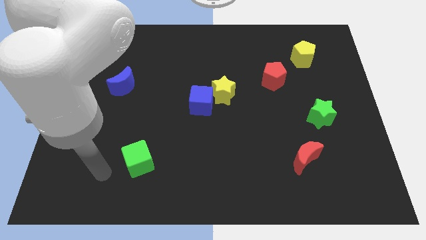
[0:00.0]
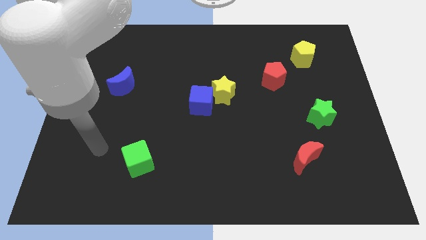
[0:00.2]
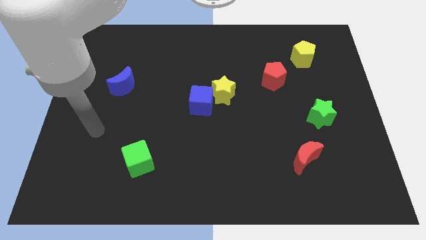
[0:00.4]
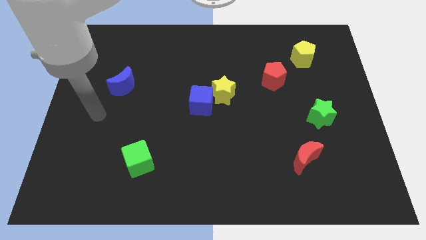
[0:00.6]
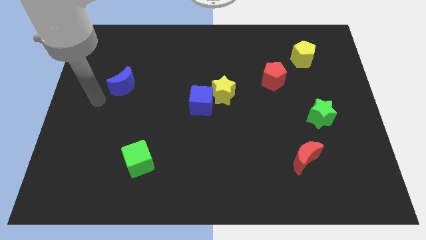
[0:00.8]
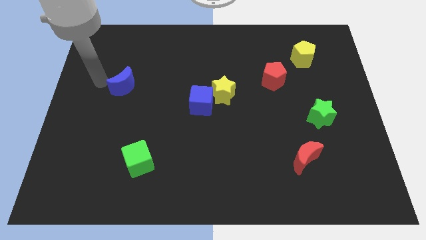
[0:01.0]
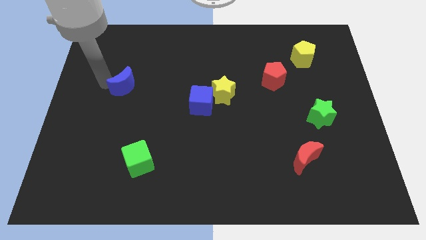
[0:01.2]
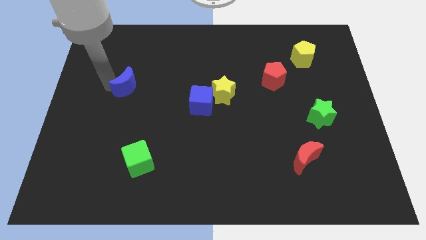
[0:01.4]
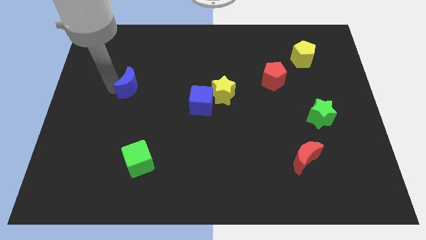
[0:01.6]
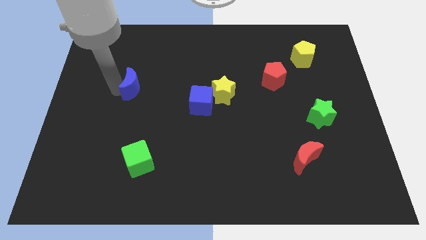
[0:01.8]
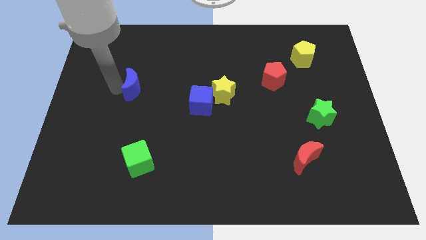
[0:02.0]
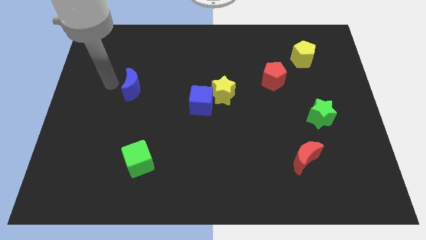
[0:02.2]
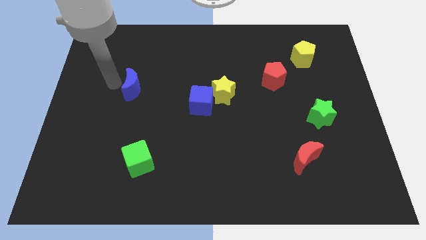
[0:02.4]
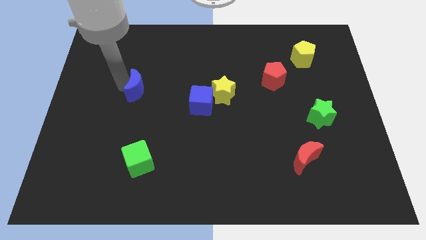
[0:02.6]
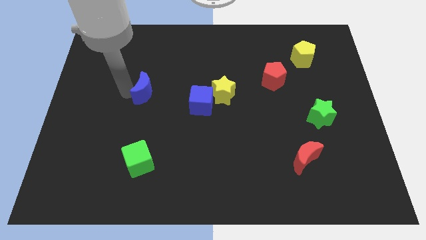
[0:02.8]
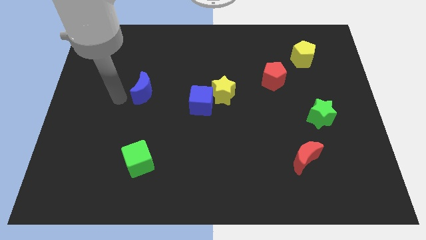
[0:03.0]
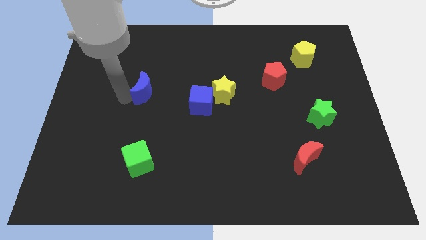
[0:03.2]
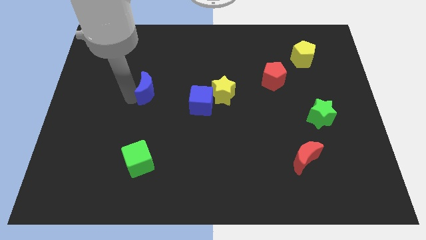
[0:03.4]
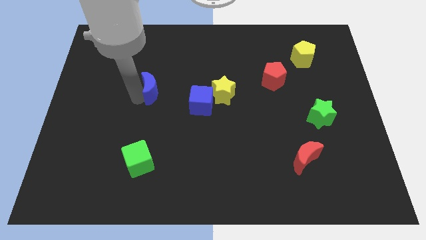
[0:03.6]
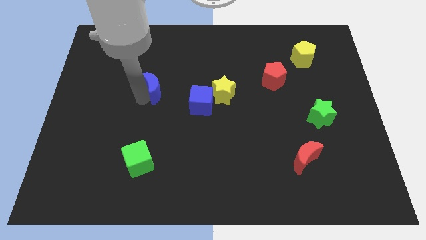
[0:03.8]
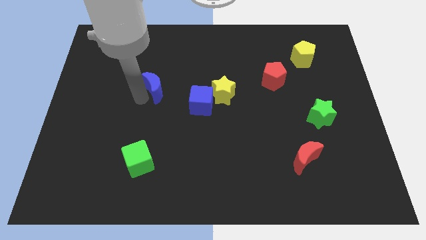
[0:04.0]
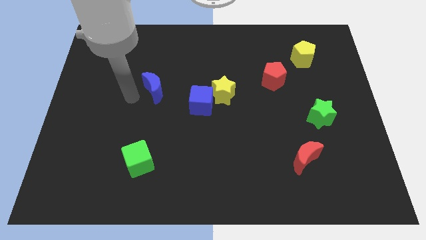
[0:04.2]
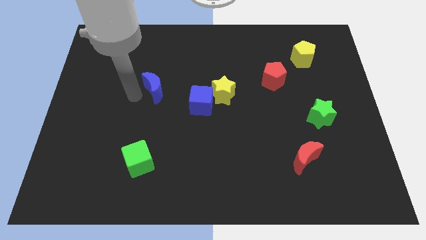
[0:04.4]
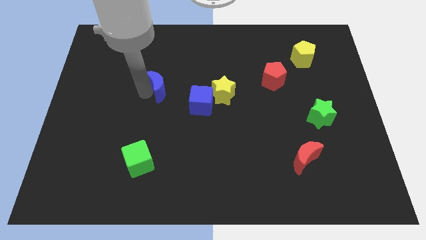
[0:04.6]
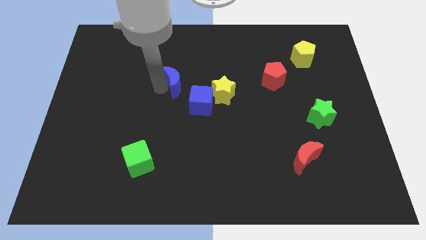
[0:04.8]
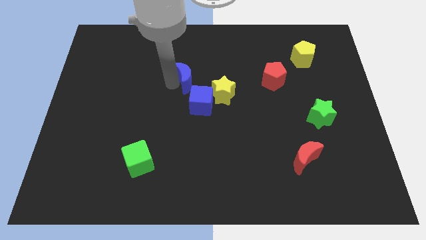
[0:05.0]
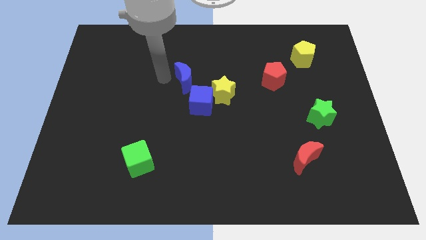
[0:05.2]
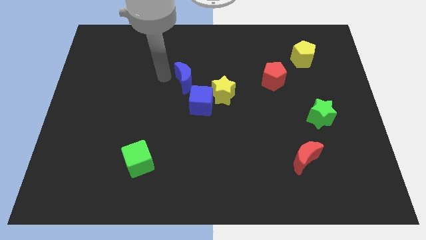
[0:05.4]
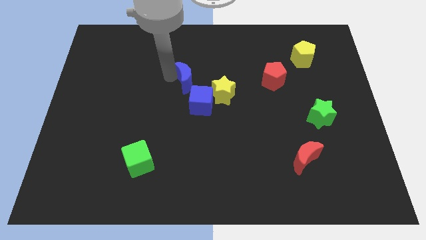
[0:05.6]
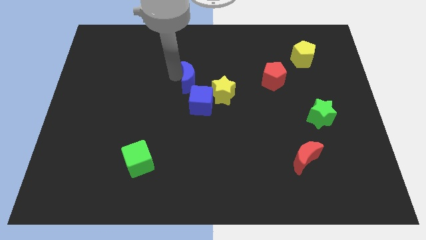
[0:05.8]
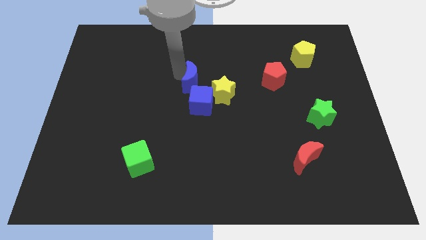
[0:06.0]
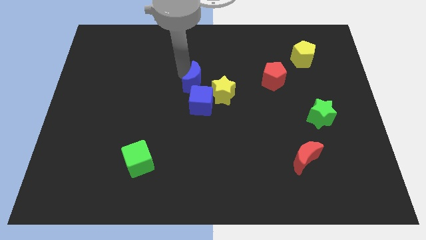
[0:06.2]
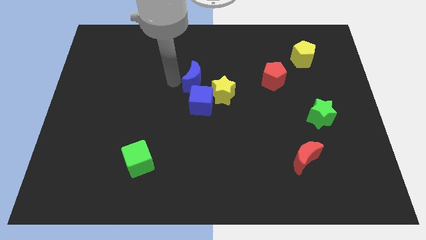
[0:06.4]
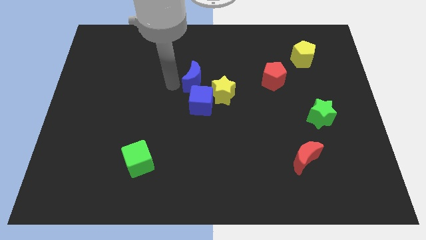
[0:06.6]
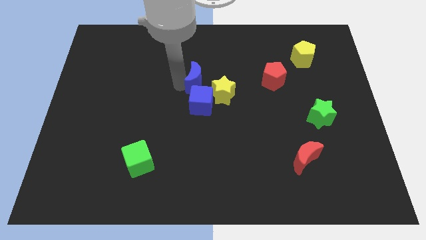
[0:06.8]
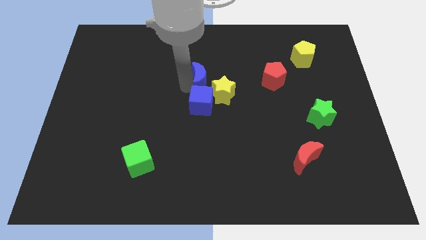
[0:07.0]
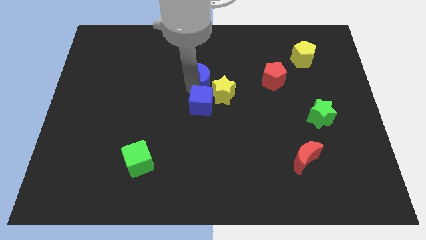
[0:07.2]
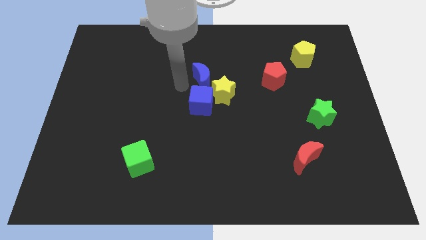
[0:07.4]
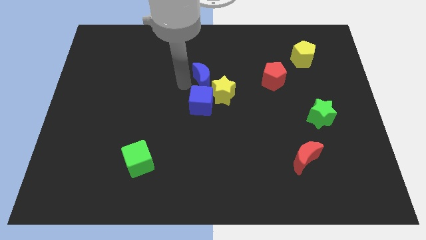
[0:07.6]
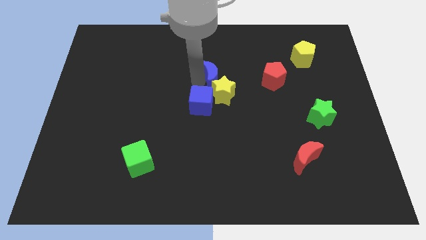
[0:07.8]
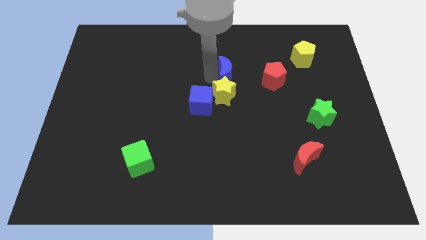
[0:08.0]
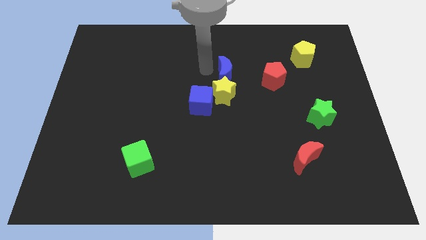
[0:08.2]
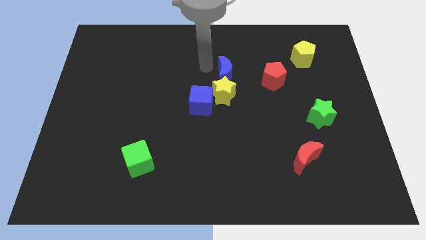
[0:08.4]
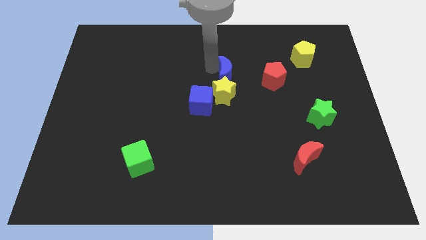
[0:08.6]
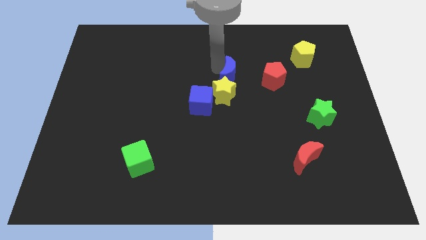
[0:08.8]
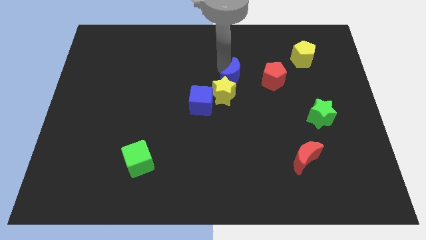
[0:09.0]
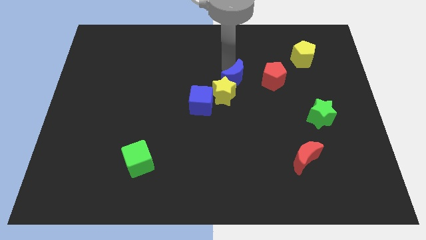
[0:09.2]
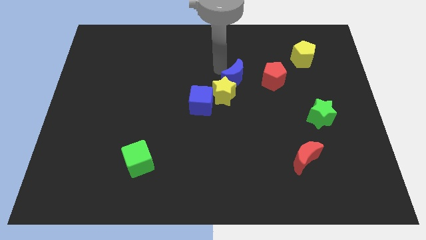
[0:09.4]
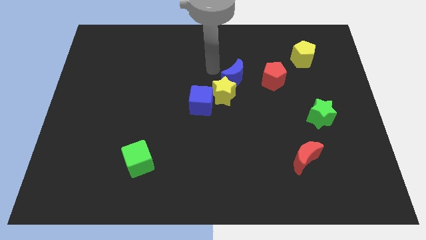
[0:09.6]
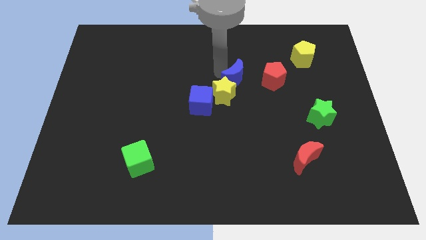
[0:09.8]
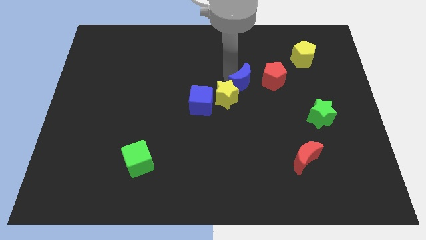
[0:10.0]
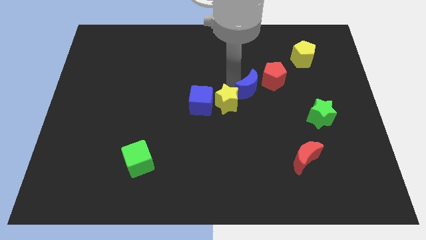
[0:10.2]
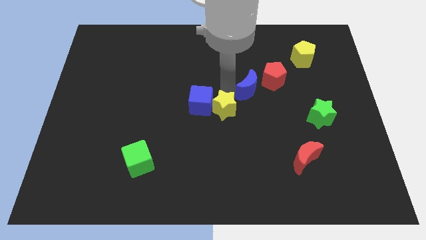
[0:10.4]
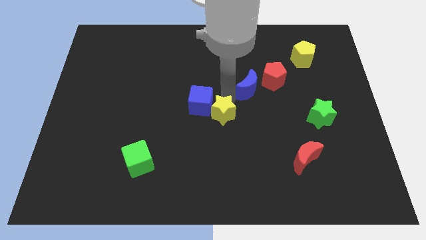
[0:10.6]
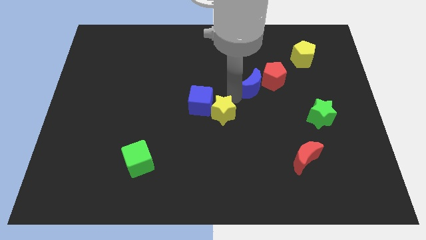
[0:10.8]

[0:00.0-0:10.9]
push the blue moon close to the red pentagon

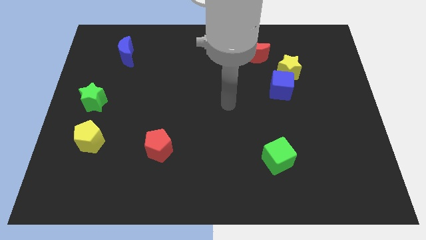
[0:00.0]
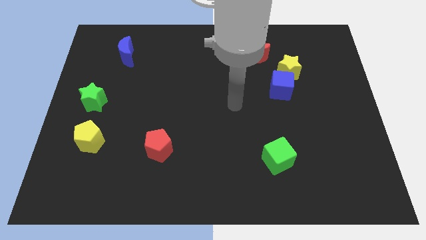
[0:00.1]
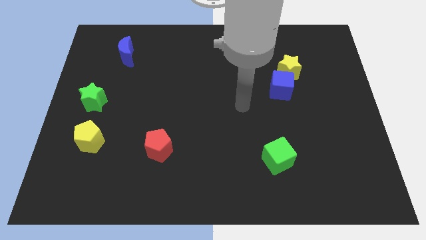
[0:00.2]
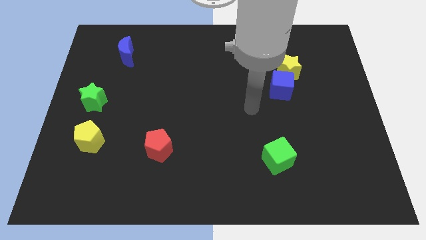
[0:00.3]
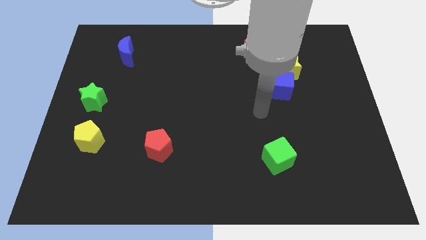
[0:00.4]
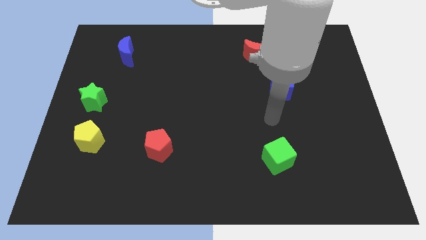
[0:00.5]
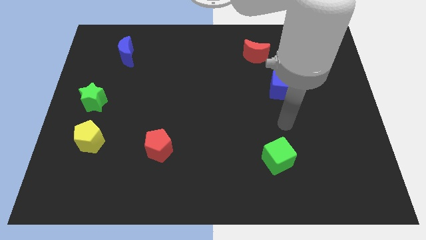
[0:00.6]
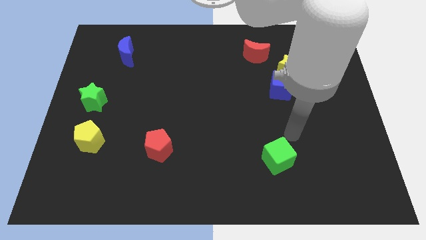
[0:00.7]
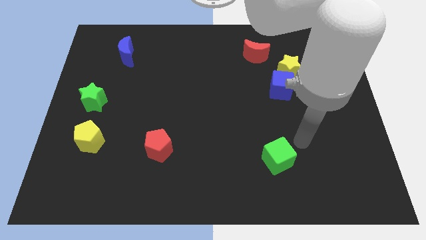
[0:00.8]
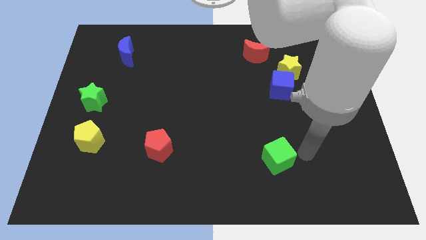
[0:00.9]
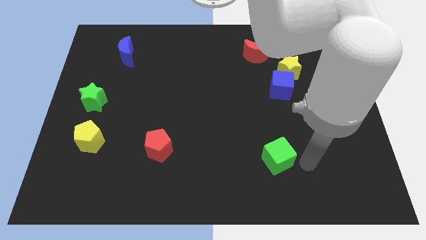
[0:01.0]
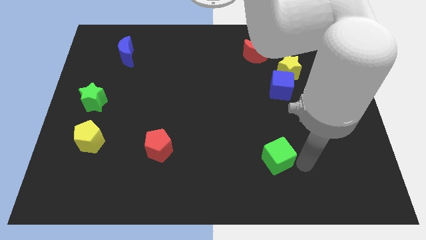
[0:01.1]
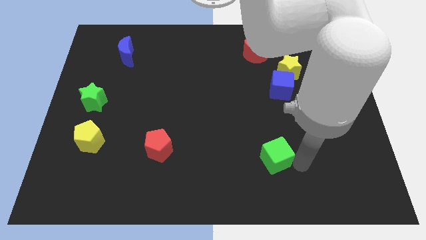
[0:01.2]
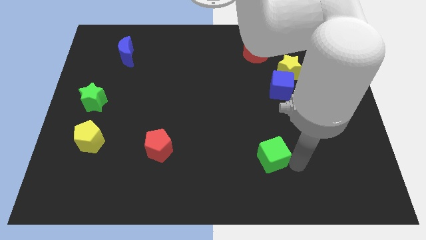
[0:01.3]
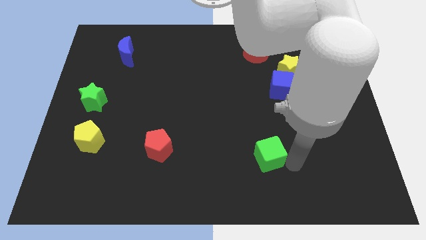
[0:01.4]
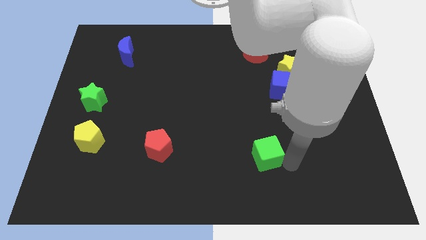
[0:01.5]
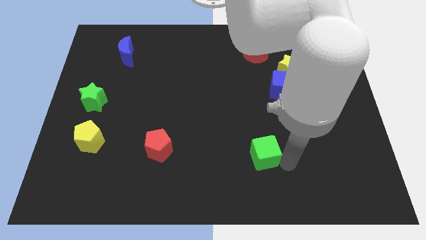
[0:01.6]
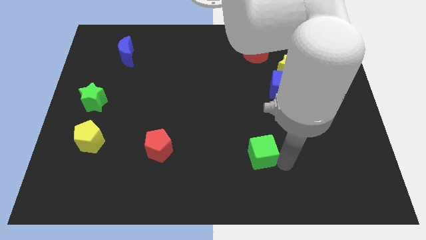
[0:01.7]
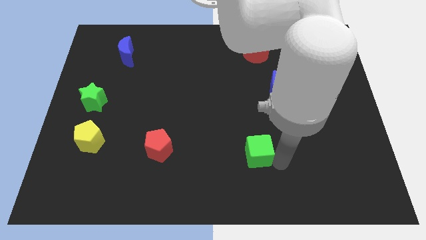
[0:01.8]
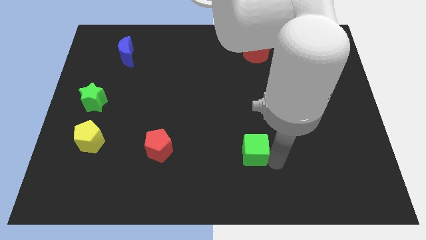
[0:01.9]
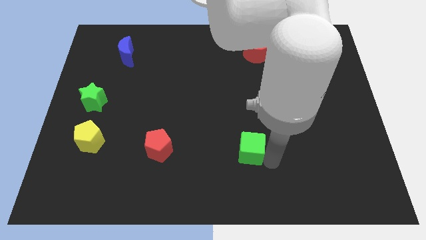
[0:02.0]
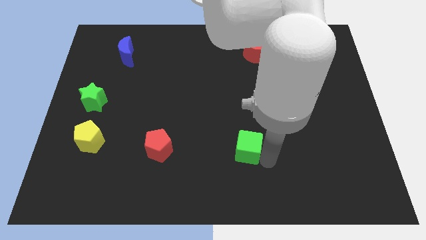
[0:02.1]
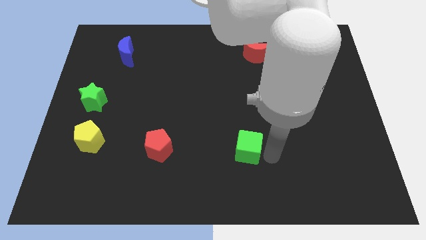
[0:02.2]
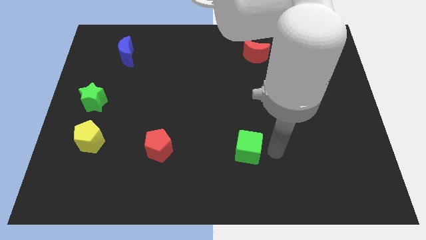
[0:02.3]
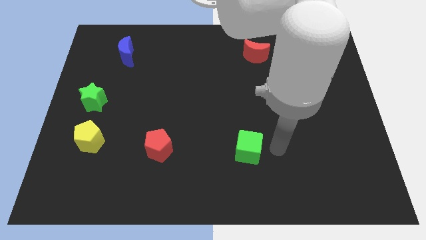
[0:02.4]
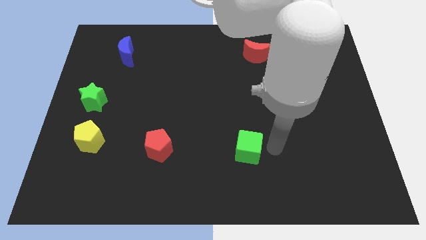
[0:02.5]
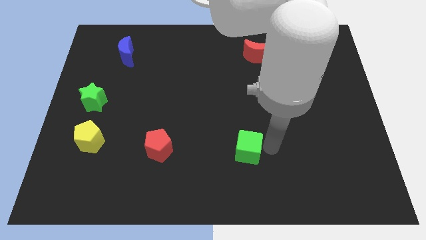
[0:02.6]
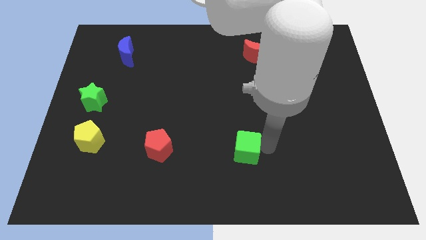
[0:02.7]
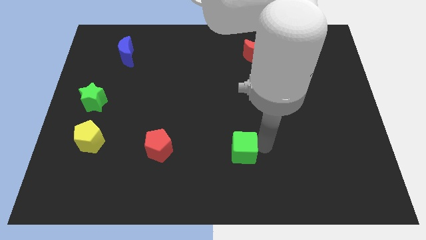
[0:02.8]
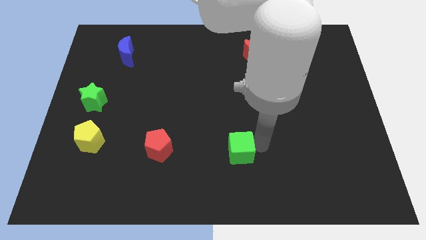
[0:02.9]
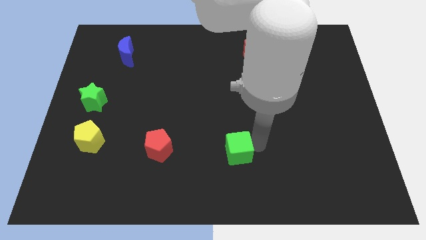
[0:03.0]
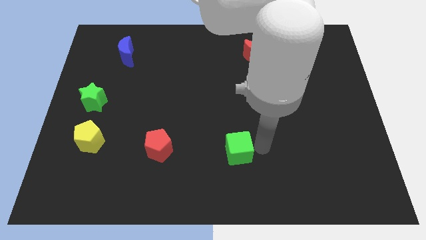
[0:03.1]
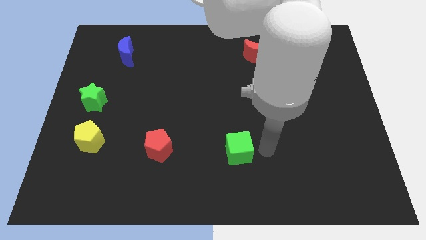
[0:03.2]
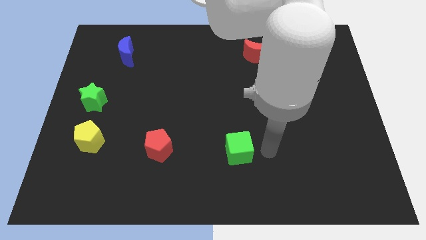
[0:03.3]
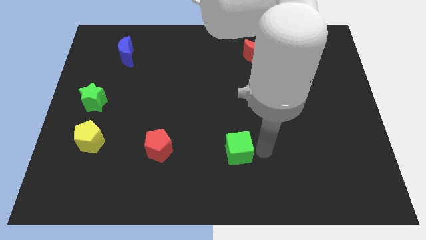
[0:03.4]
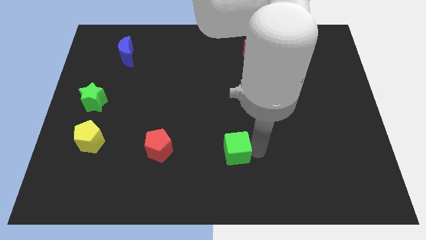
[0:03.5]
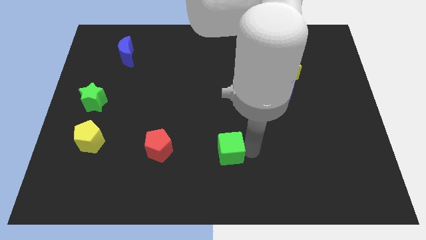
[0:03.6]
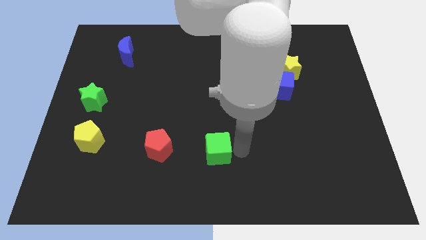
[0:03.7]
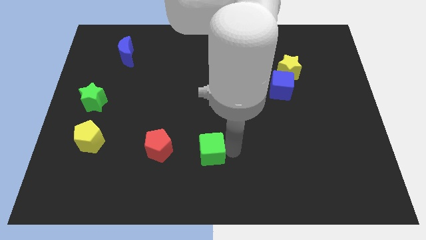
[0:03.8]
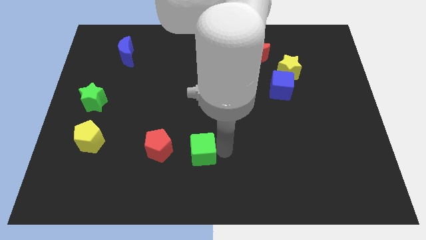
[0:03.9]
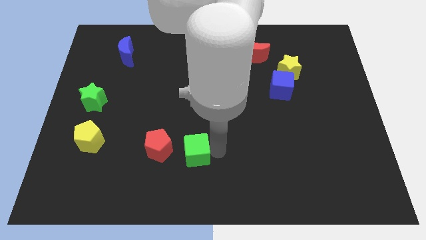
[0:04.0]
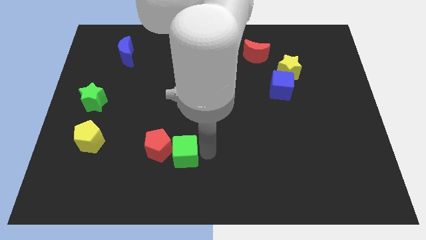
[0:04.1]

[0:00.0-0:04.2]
slide the green cube towards the red pentagon
